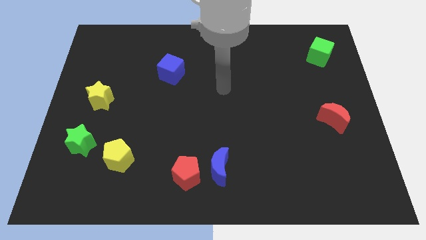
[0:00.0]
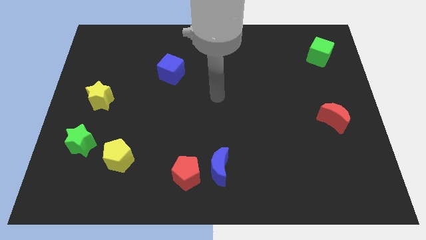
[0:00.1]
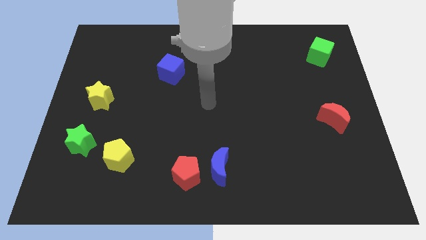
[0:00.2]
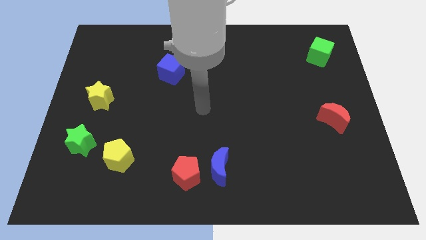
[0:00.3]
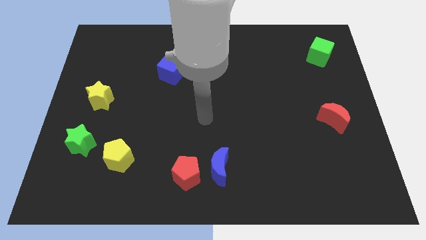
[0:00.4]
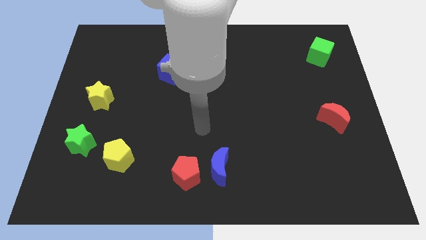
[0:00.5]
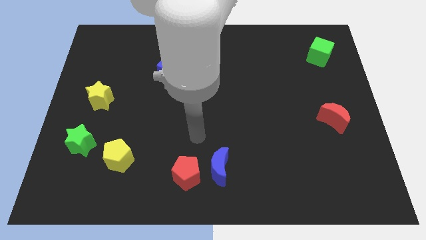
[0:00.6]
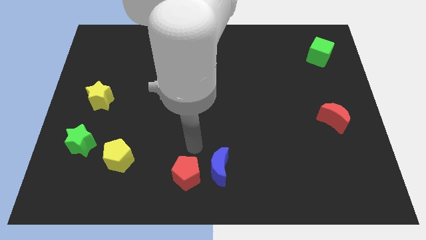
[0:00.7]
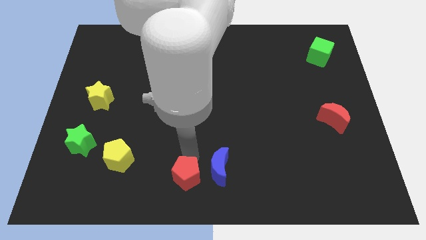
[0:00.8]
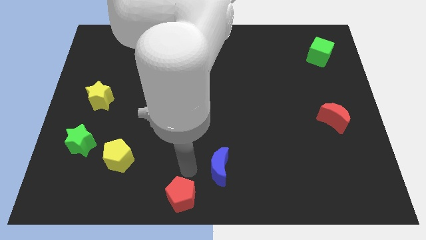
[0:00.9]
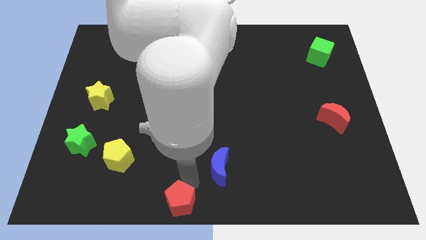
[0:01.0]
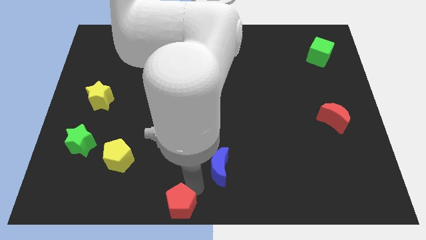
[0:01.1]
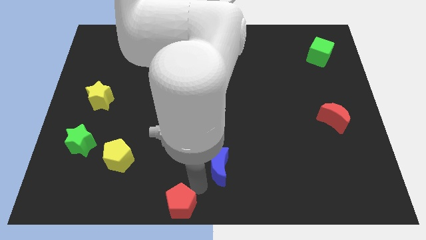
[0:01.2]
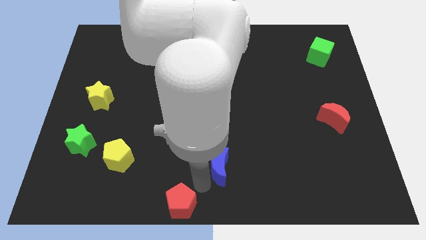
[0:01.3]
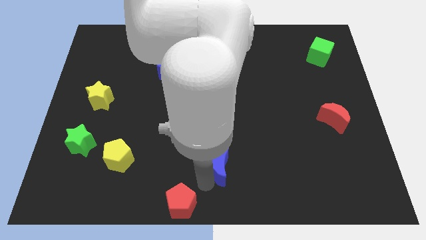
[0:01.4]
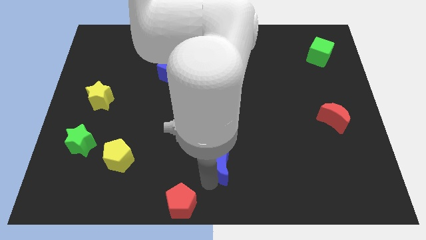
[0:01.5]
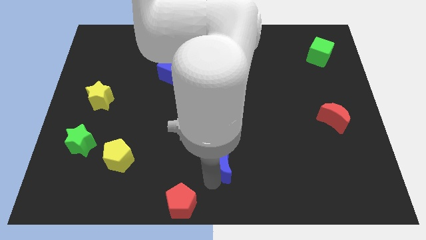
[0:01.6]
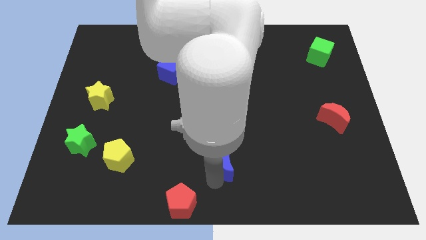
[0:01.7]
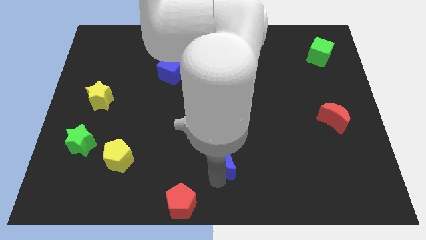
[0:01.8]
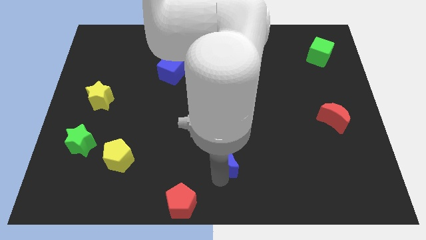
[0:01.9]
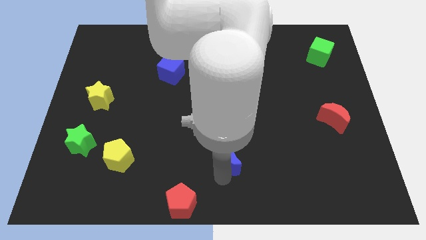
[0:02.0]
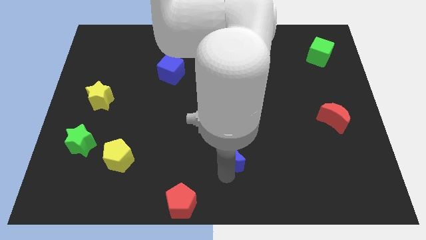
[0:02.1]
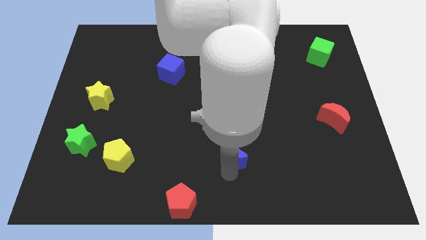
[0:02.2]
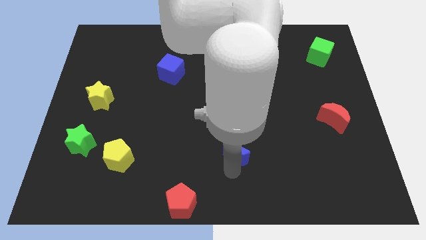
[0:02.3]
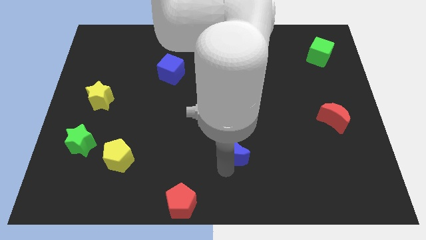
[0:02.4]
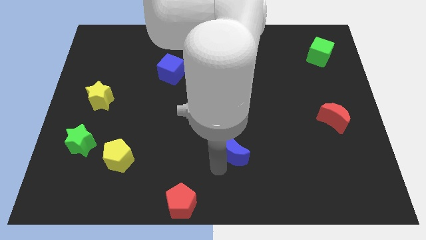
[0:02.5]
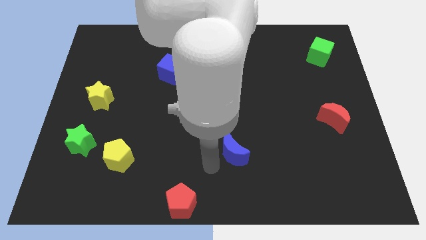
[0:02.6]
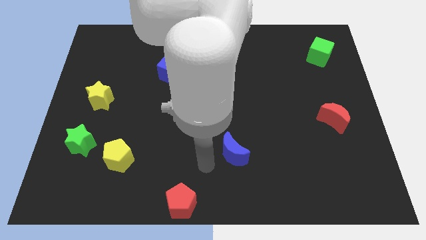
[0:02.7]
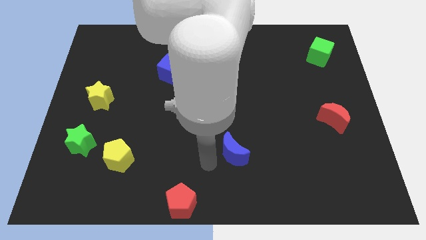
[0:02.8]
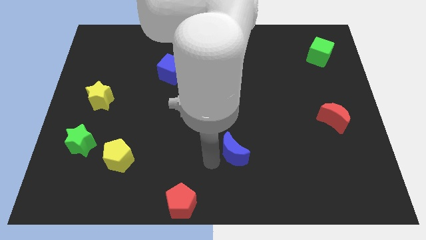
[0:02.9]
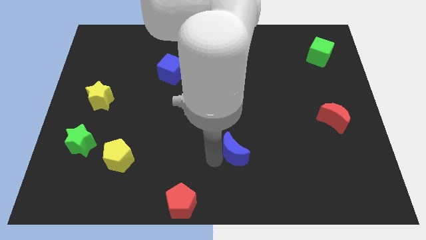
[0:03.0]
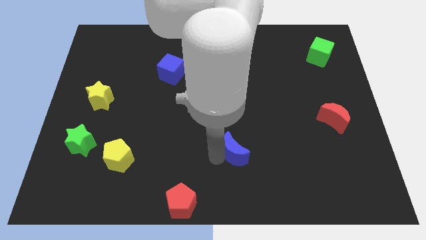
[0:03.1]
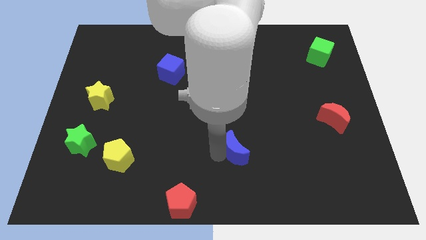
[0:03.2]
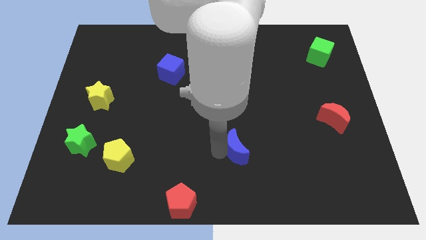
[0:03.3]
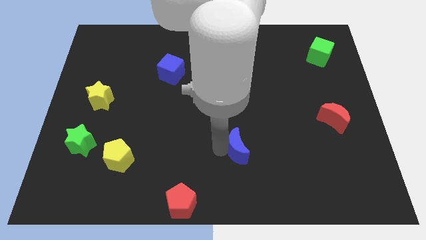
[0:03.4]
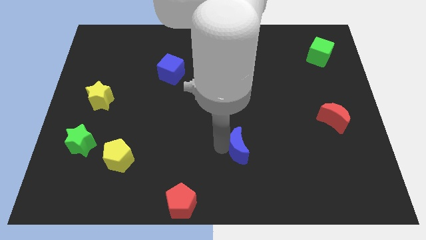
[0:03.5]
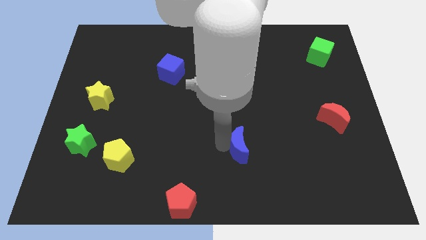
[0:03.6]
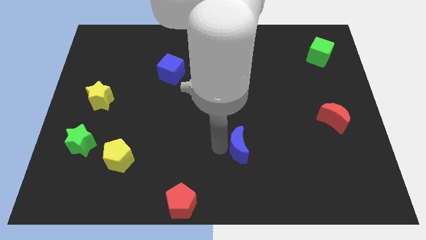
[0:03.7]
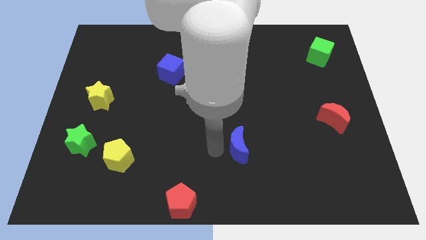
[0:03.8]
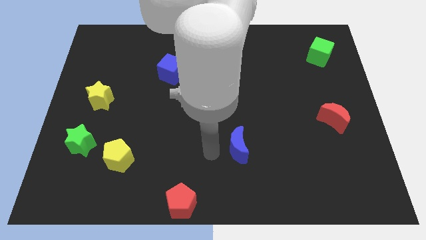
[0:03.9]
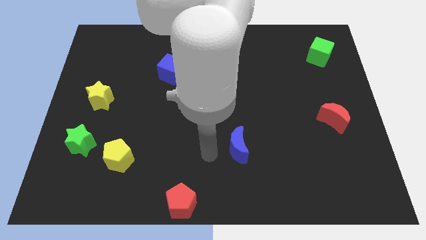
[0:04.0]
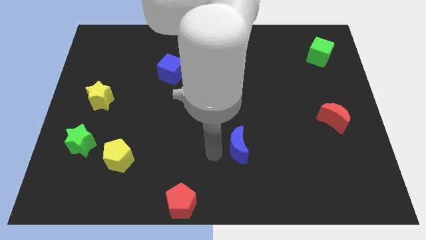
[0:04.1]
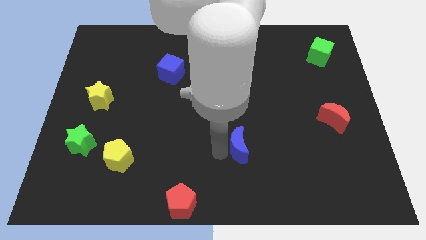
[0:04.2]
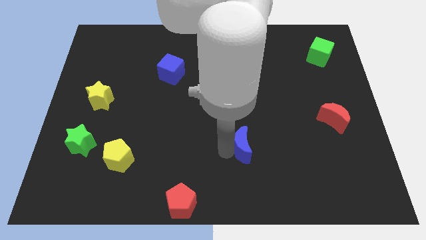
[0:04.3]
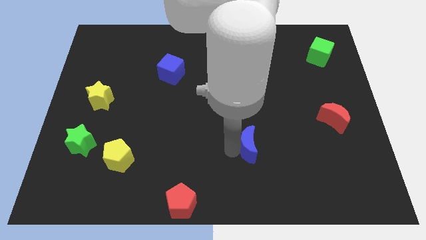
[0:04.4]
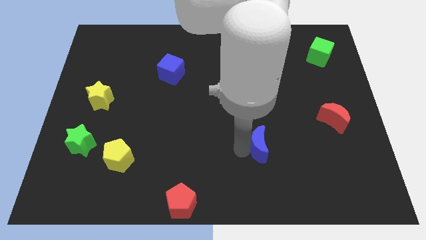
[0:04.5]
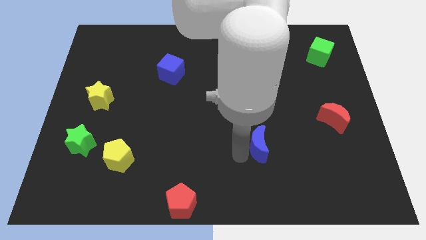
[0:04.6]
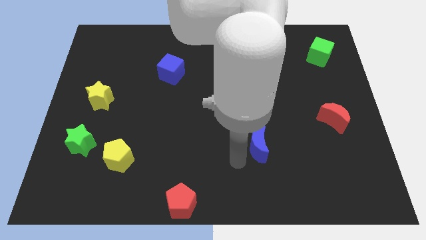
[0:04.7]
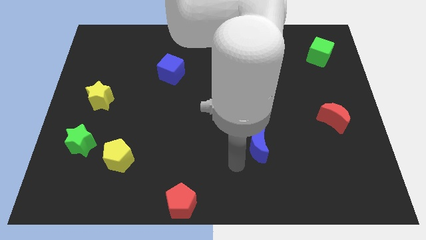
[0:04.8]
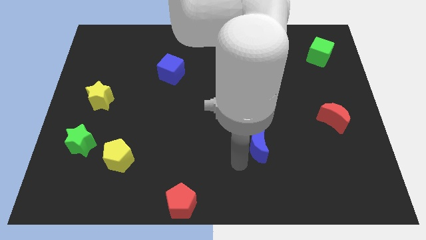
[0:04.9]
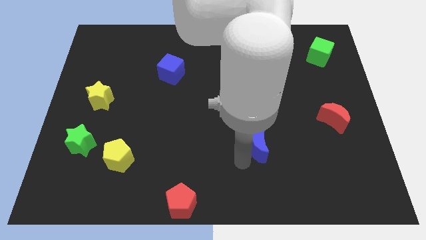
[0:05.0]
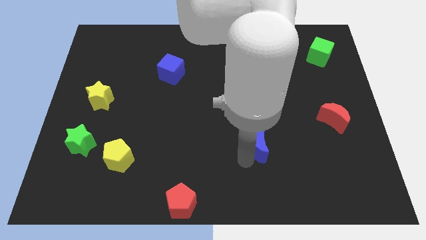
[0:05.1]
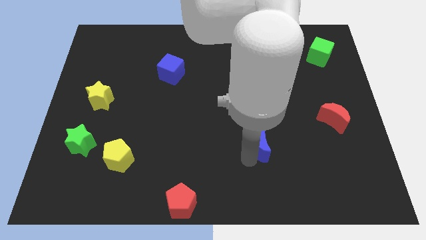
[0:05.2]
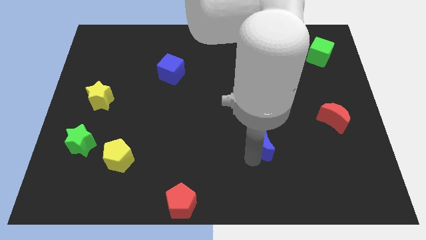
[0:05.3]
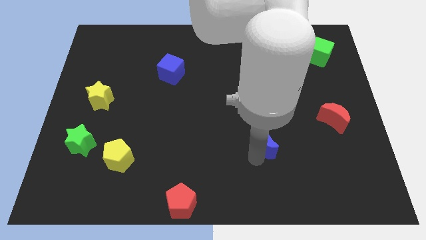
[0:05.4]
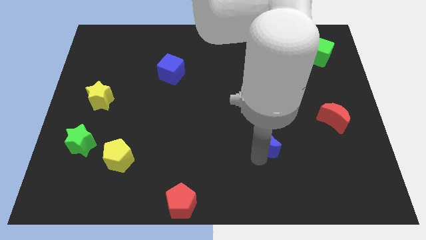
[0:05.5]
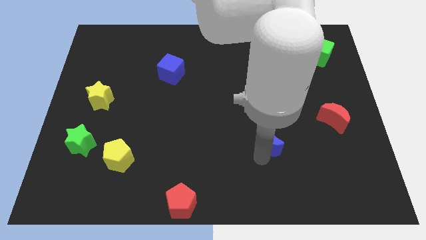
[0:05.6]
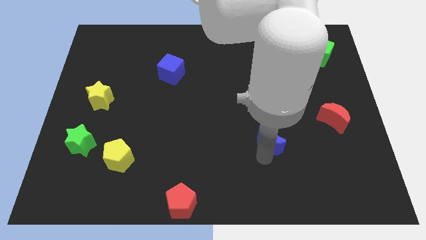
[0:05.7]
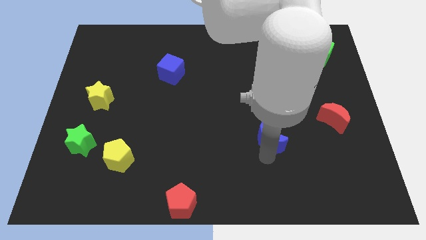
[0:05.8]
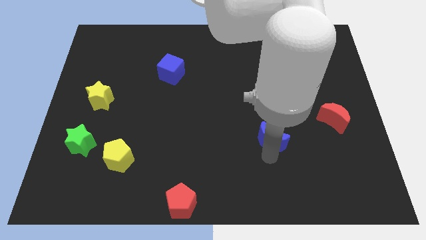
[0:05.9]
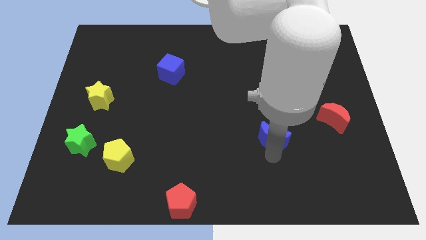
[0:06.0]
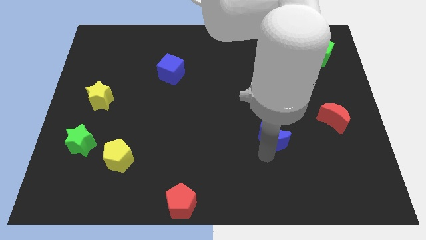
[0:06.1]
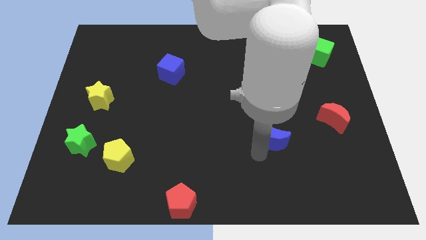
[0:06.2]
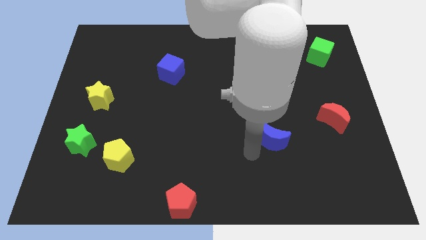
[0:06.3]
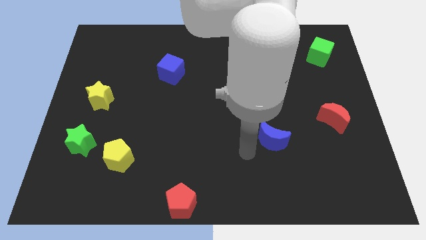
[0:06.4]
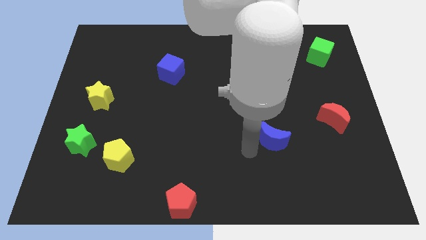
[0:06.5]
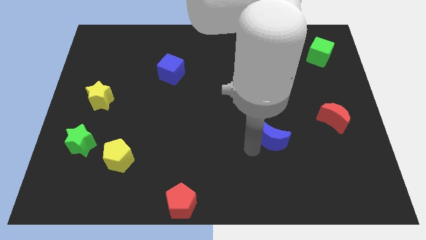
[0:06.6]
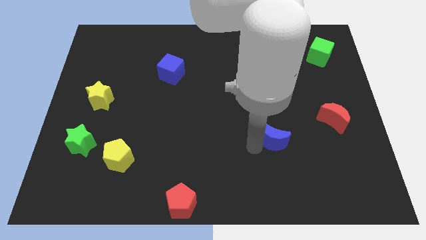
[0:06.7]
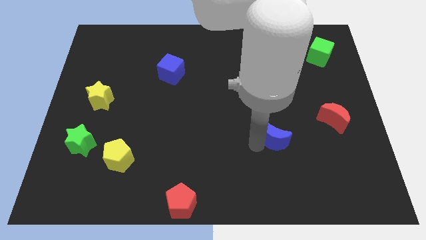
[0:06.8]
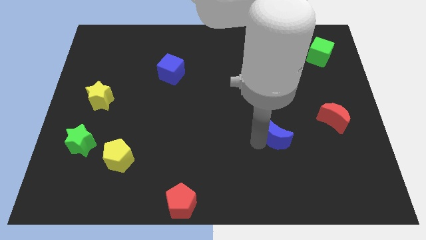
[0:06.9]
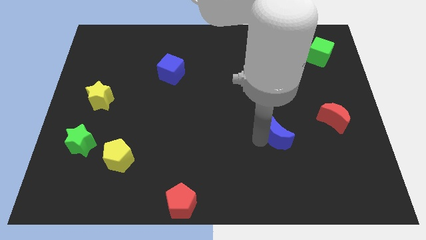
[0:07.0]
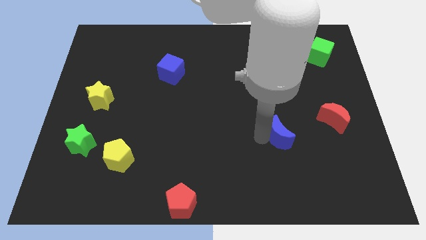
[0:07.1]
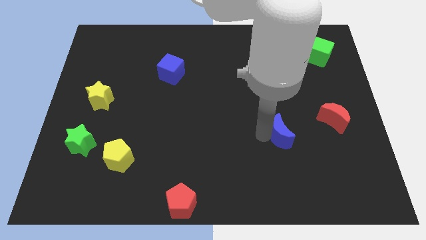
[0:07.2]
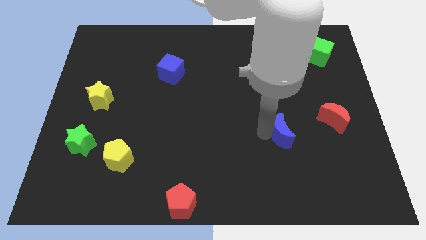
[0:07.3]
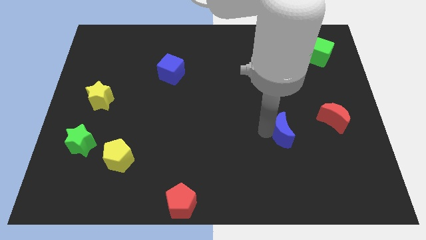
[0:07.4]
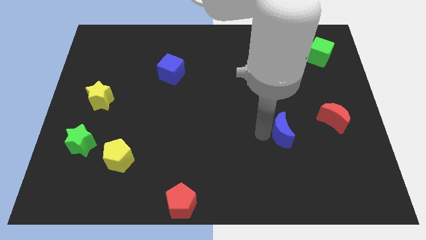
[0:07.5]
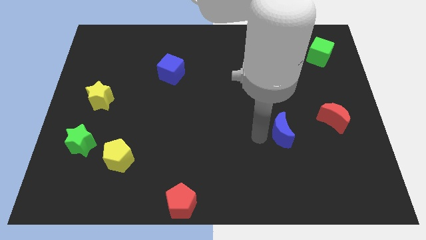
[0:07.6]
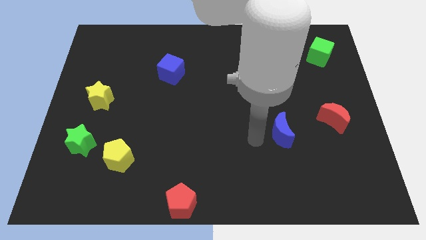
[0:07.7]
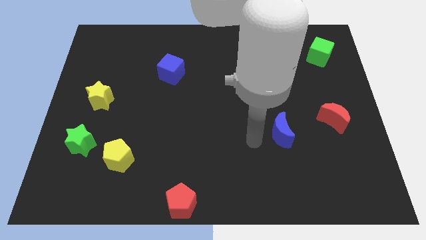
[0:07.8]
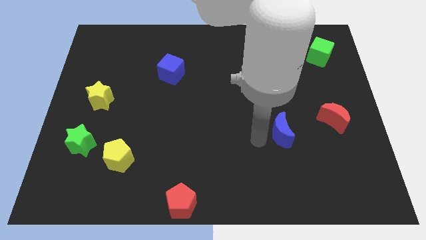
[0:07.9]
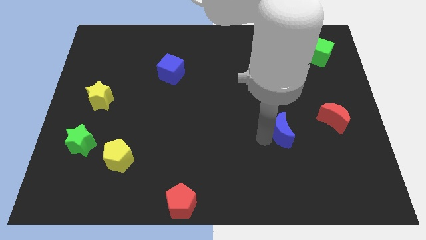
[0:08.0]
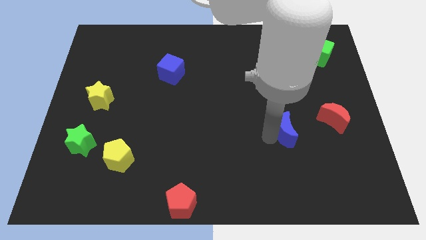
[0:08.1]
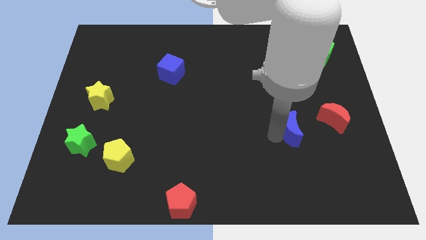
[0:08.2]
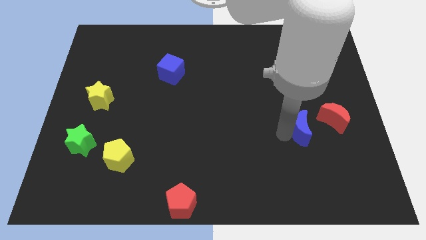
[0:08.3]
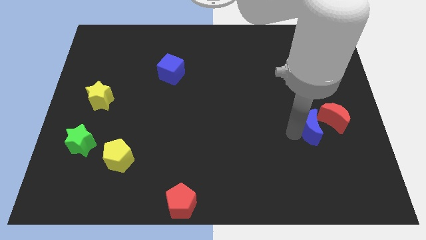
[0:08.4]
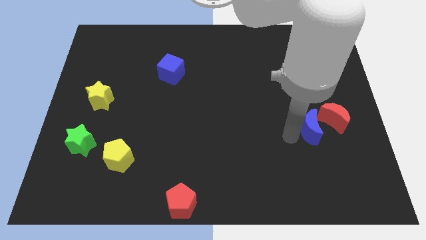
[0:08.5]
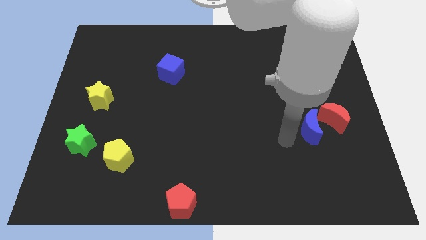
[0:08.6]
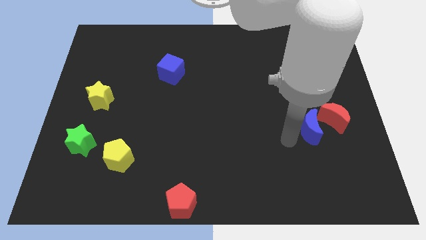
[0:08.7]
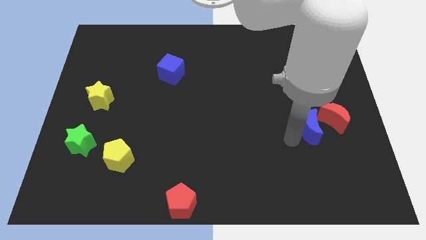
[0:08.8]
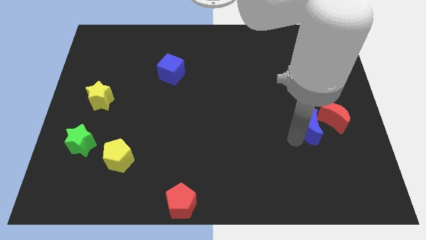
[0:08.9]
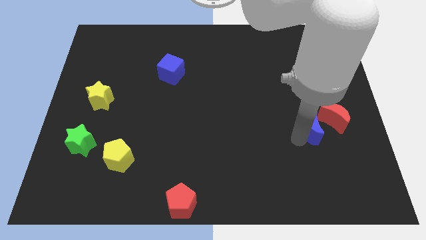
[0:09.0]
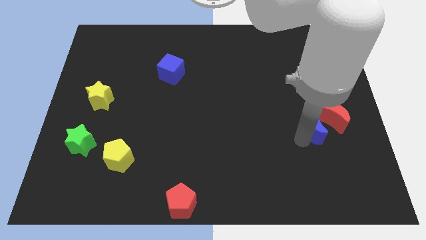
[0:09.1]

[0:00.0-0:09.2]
slide the blue moon to the red moon
